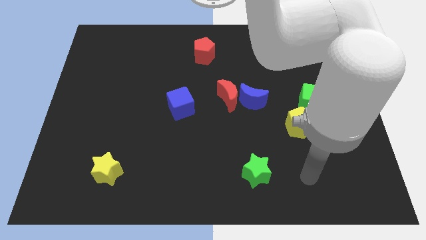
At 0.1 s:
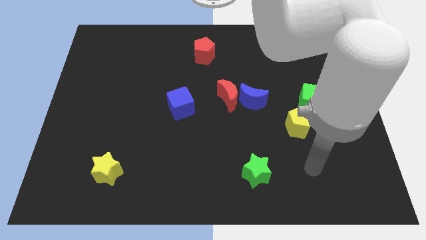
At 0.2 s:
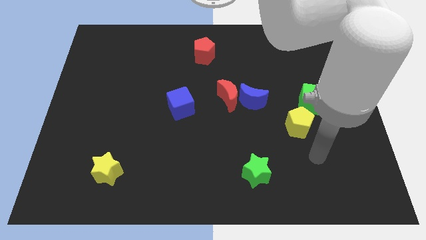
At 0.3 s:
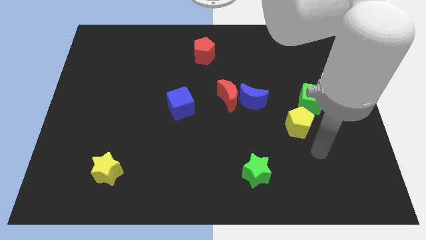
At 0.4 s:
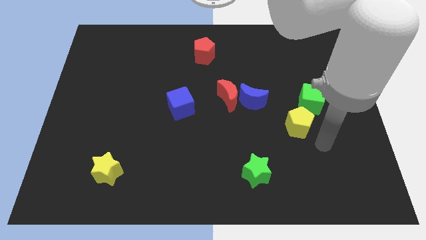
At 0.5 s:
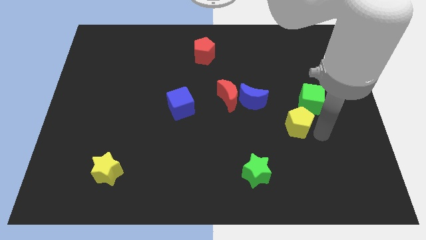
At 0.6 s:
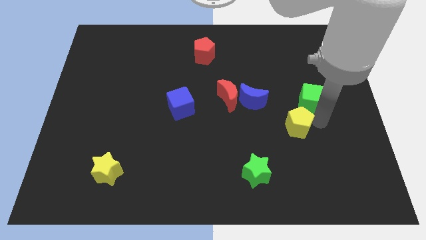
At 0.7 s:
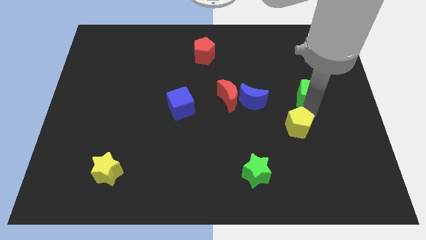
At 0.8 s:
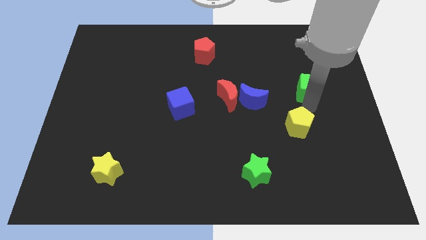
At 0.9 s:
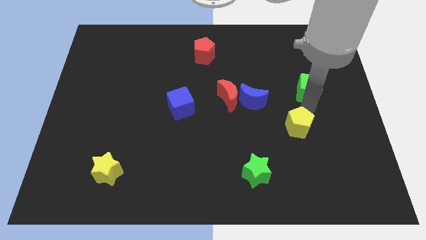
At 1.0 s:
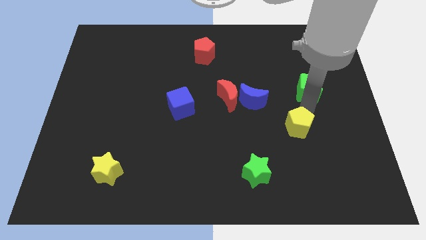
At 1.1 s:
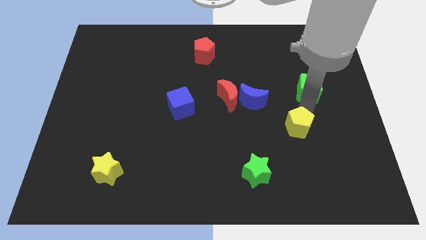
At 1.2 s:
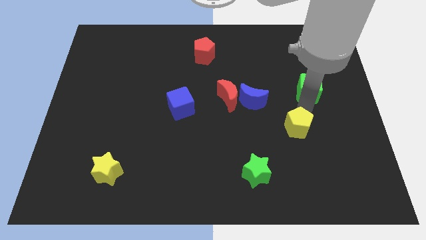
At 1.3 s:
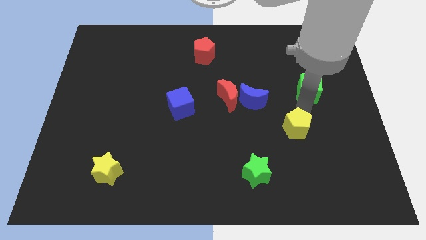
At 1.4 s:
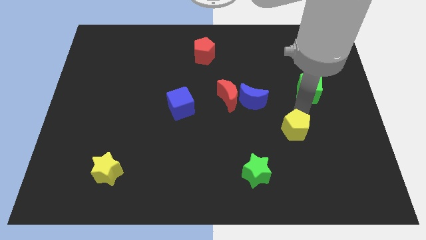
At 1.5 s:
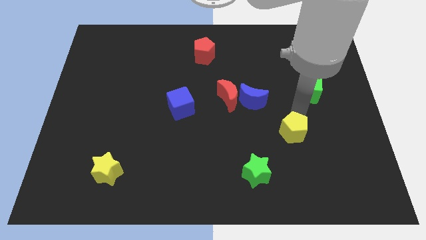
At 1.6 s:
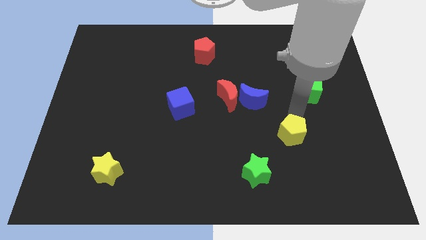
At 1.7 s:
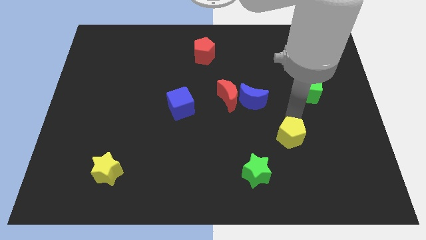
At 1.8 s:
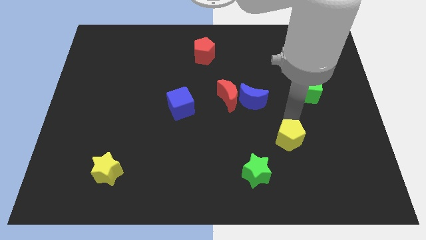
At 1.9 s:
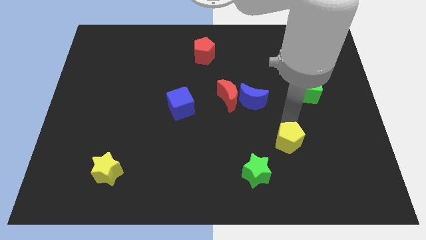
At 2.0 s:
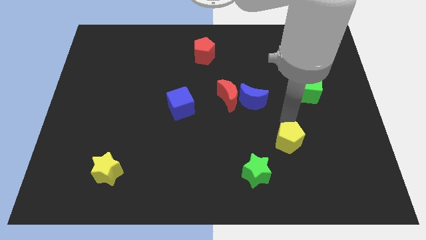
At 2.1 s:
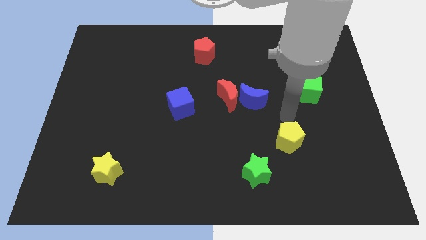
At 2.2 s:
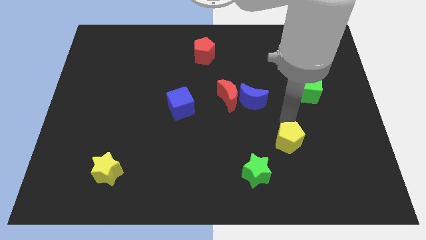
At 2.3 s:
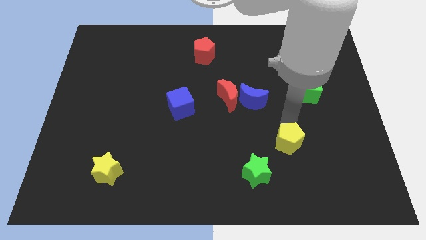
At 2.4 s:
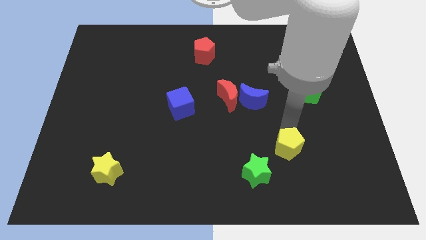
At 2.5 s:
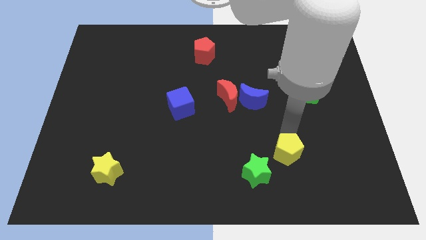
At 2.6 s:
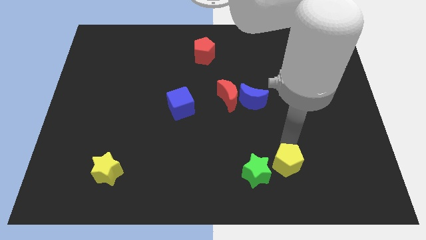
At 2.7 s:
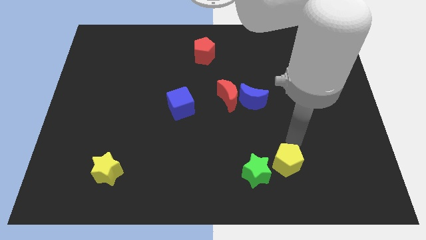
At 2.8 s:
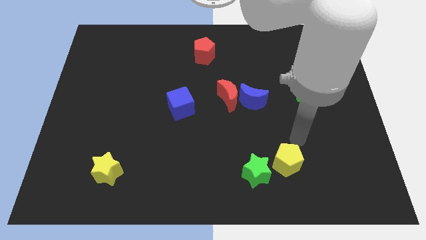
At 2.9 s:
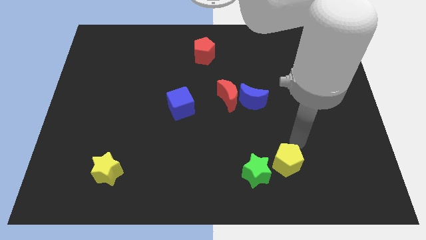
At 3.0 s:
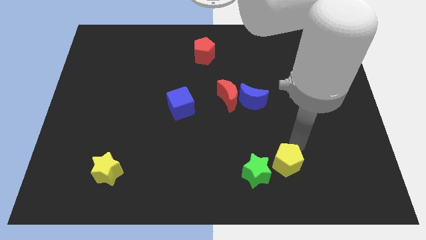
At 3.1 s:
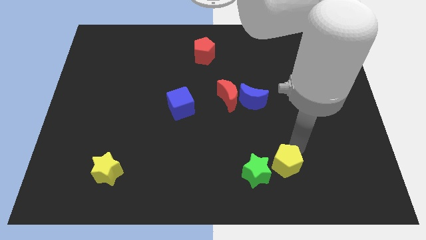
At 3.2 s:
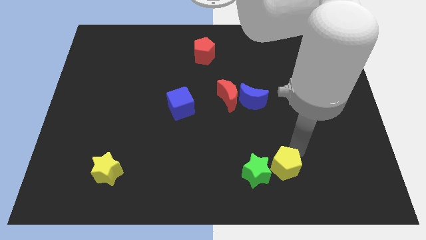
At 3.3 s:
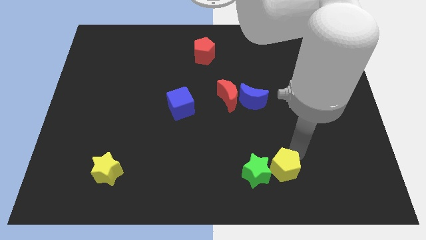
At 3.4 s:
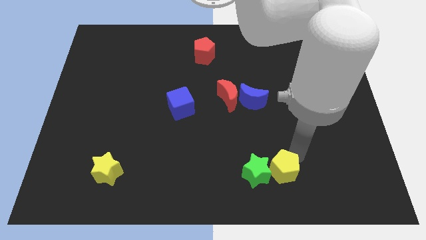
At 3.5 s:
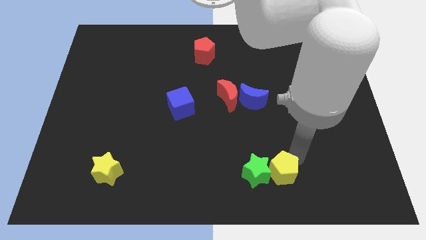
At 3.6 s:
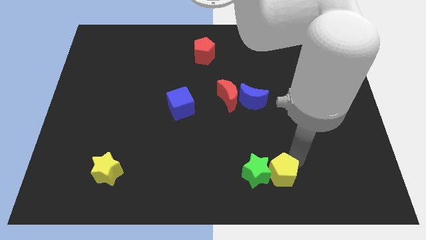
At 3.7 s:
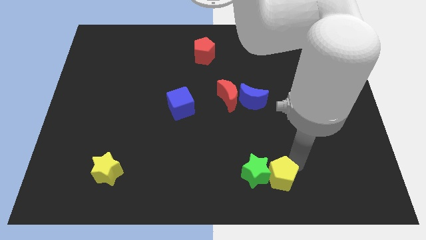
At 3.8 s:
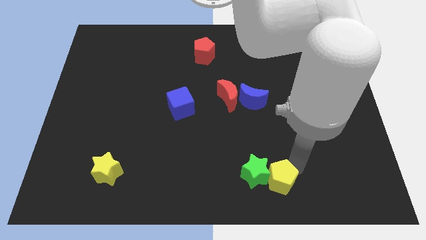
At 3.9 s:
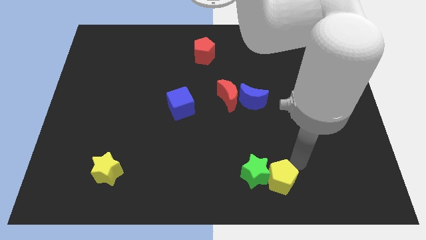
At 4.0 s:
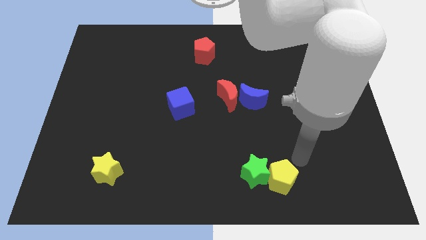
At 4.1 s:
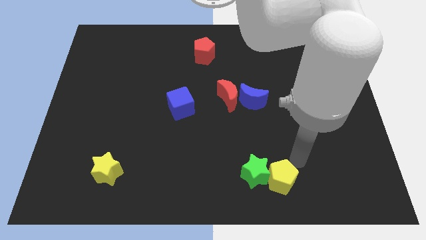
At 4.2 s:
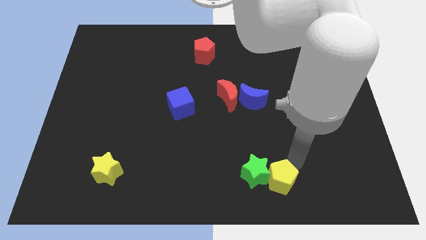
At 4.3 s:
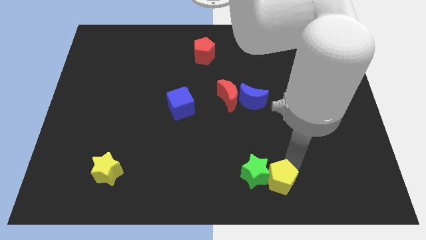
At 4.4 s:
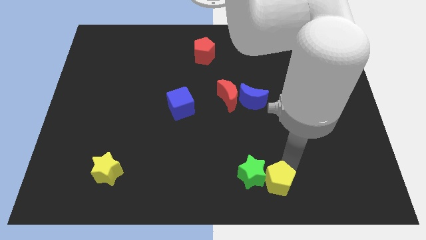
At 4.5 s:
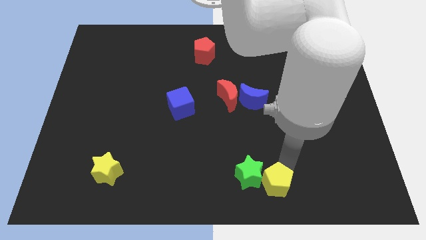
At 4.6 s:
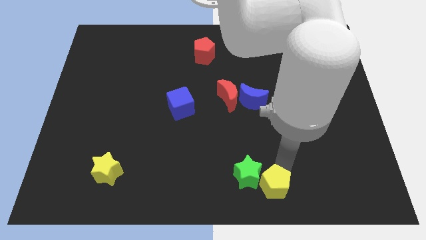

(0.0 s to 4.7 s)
move the yellow pentagon to the bottom side

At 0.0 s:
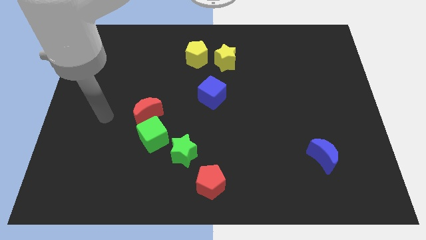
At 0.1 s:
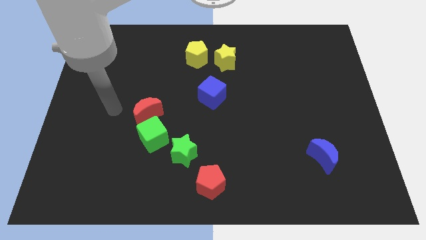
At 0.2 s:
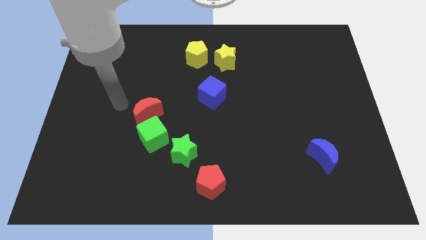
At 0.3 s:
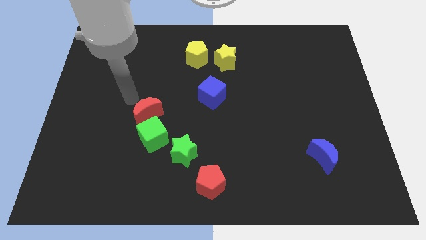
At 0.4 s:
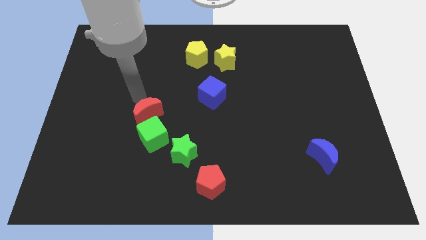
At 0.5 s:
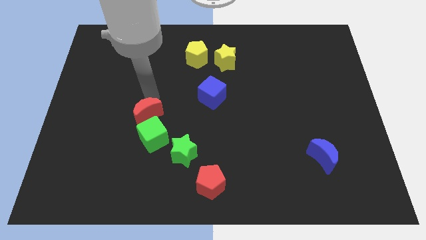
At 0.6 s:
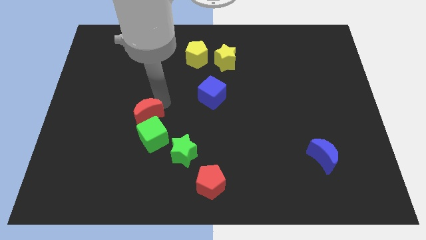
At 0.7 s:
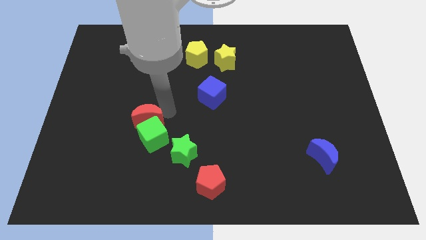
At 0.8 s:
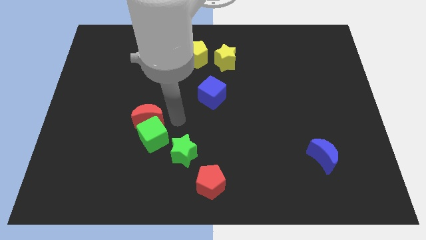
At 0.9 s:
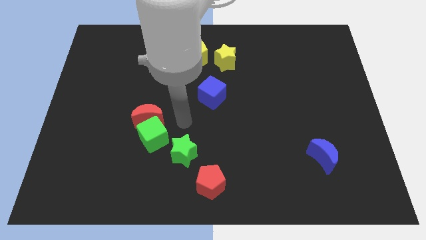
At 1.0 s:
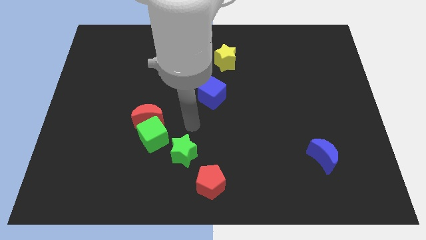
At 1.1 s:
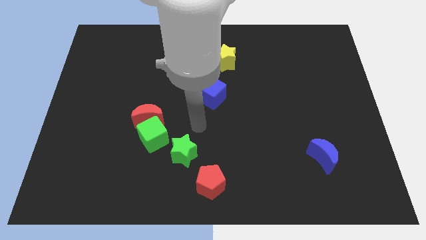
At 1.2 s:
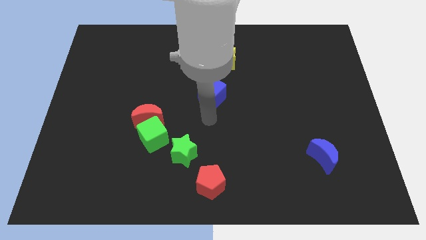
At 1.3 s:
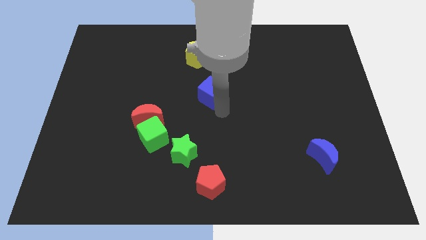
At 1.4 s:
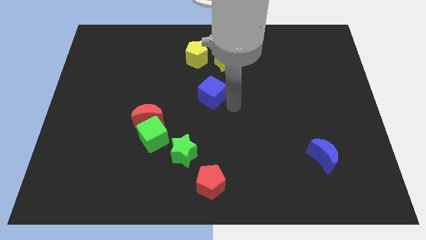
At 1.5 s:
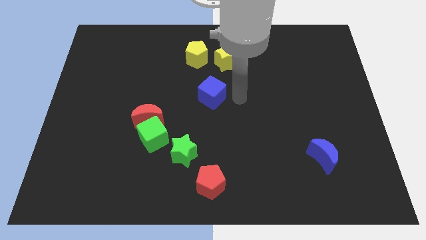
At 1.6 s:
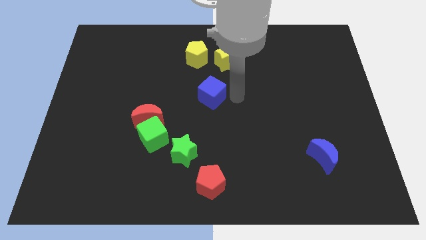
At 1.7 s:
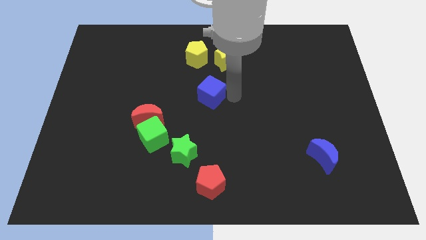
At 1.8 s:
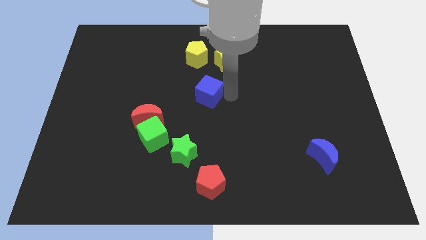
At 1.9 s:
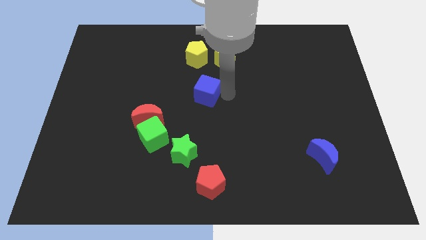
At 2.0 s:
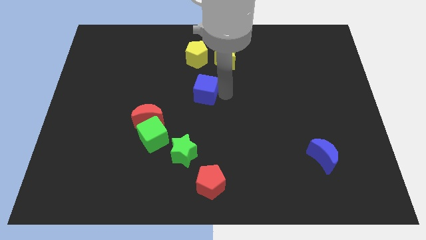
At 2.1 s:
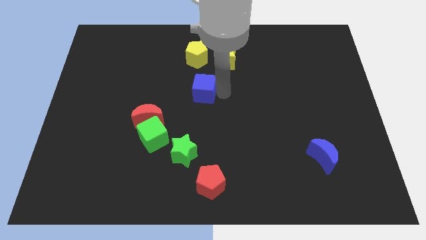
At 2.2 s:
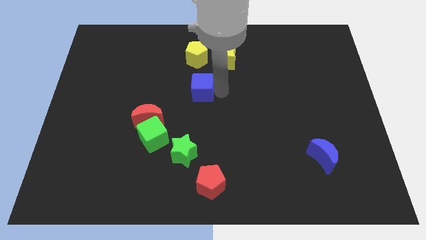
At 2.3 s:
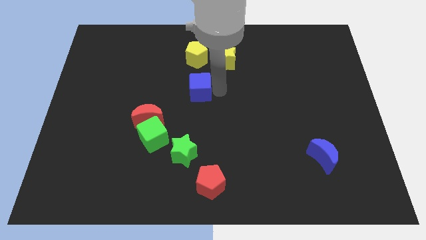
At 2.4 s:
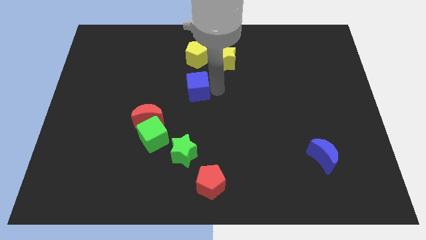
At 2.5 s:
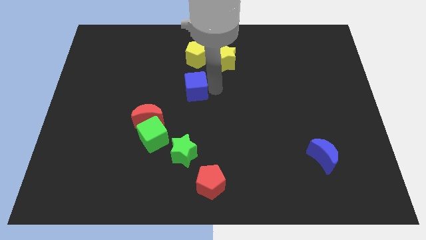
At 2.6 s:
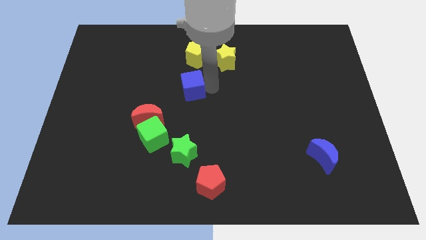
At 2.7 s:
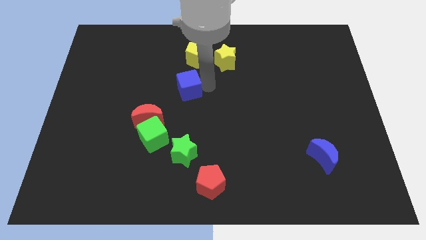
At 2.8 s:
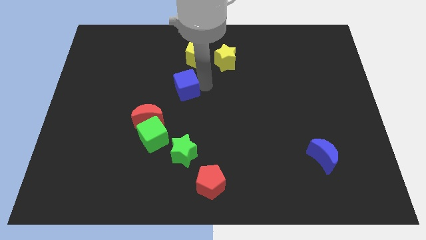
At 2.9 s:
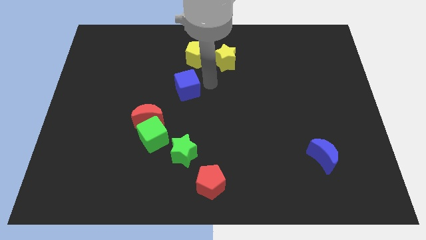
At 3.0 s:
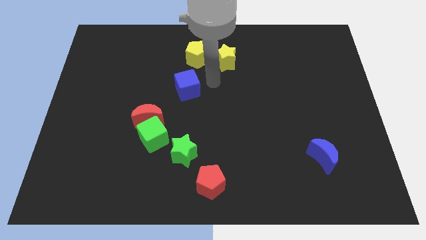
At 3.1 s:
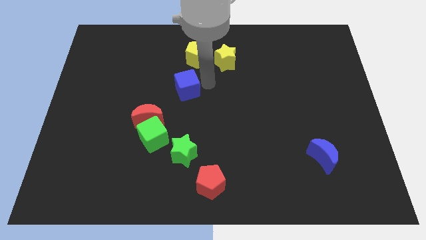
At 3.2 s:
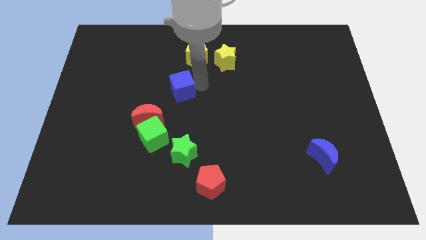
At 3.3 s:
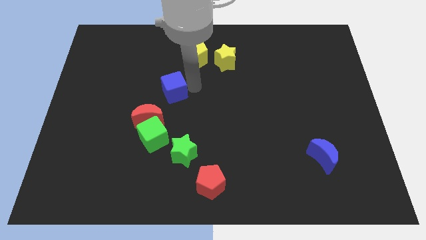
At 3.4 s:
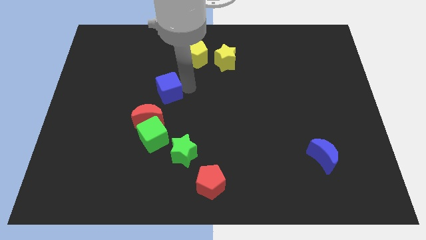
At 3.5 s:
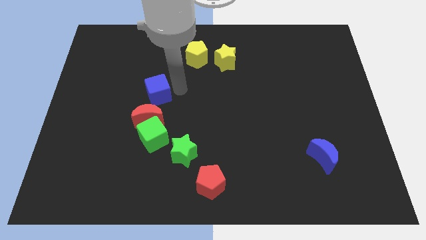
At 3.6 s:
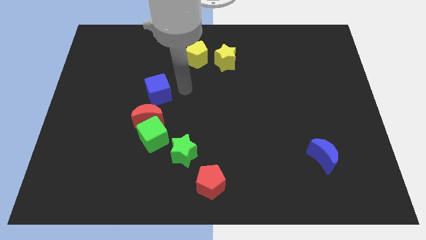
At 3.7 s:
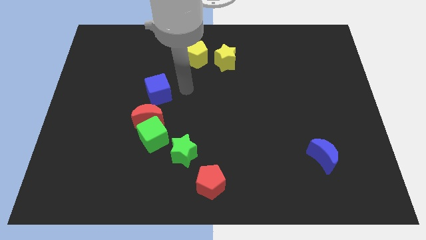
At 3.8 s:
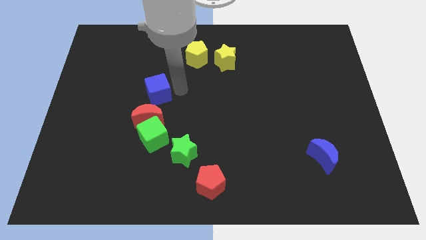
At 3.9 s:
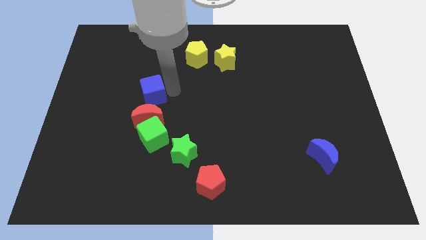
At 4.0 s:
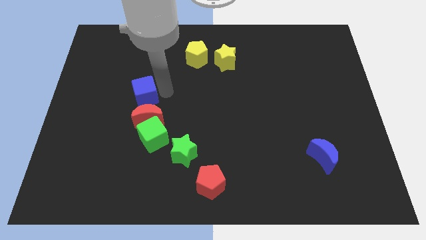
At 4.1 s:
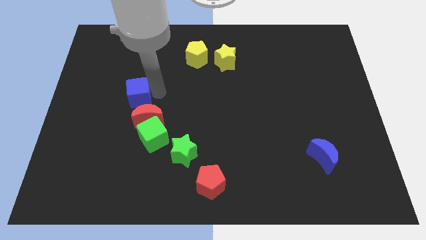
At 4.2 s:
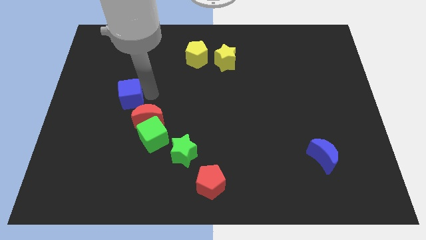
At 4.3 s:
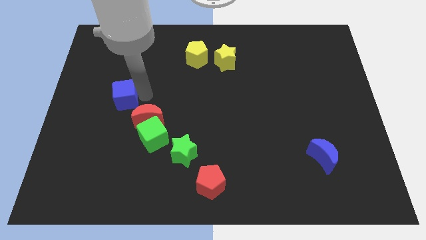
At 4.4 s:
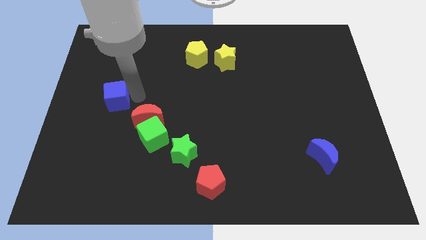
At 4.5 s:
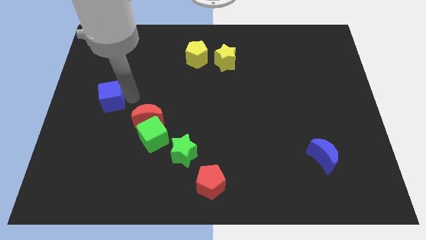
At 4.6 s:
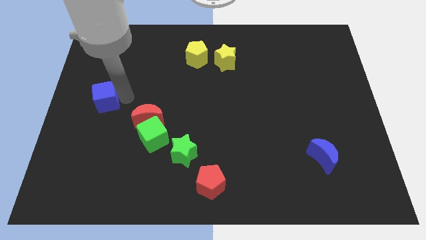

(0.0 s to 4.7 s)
put the blue cube to the left side of the board
